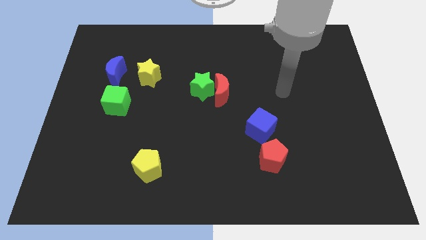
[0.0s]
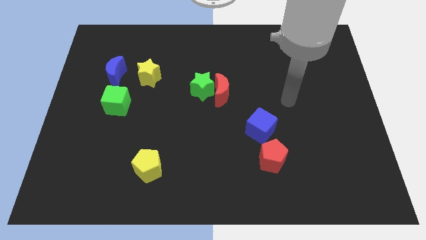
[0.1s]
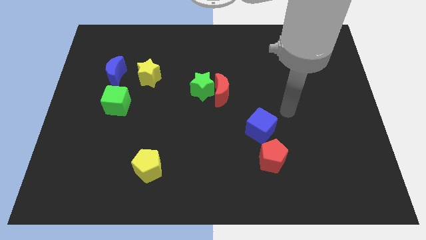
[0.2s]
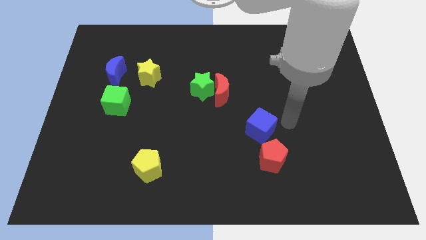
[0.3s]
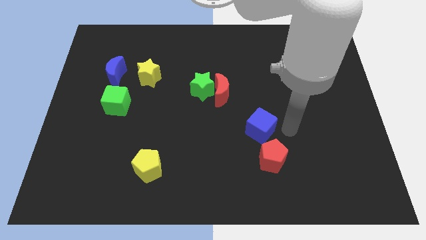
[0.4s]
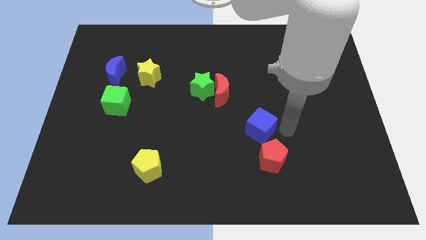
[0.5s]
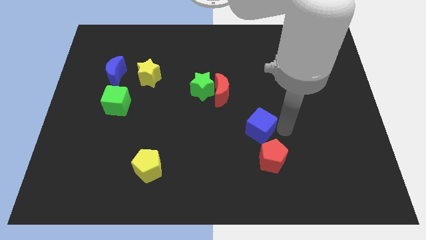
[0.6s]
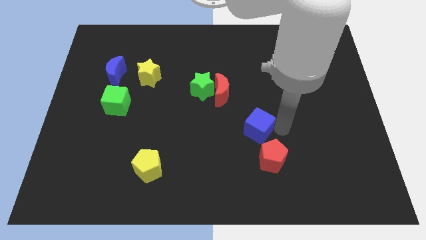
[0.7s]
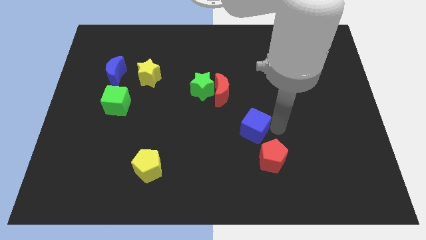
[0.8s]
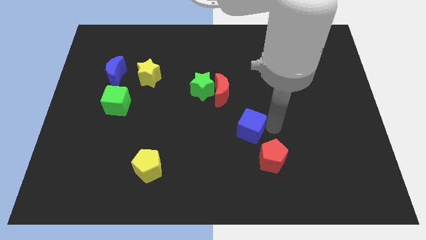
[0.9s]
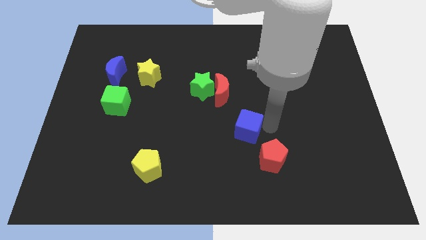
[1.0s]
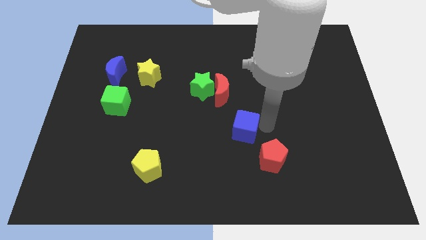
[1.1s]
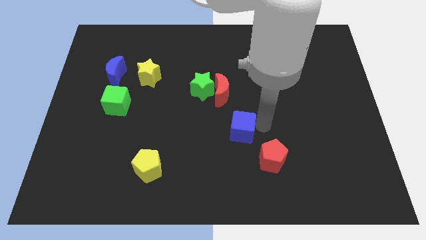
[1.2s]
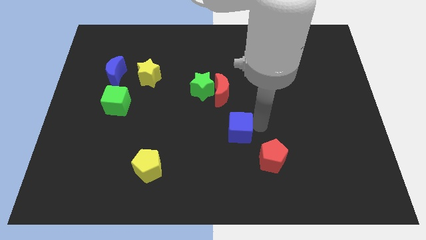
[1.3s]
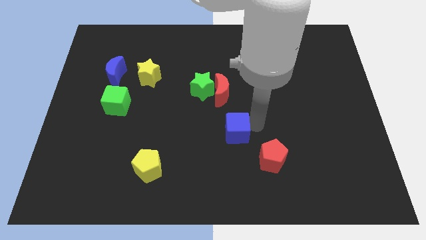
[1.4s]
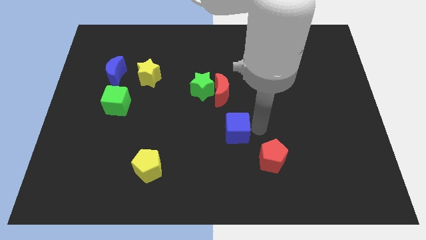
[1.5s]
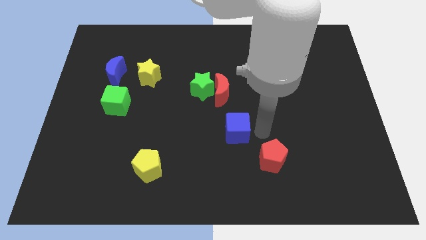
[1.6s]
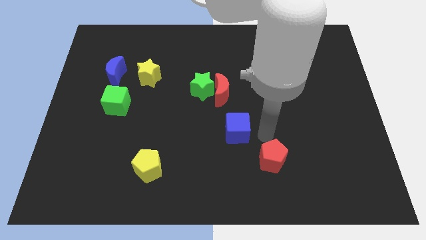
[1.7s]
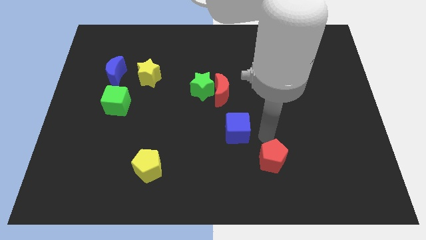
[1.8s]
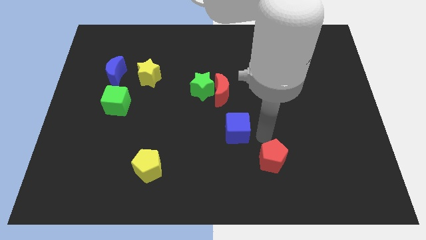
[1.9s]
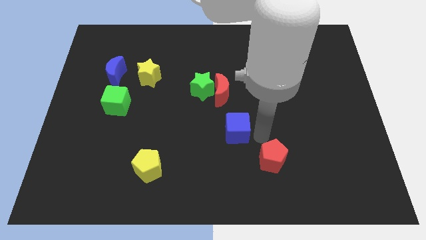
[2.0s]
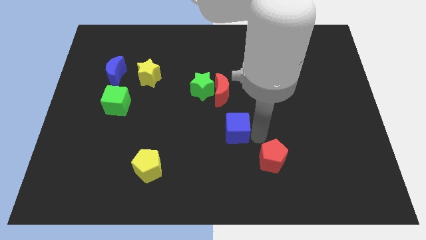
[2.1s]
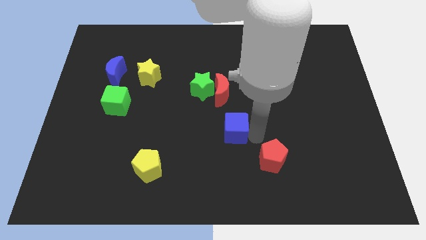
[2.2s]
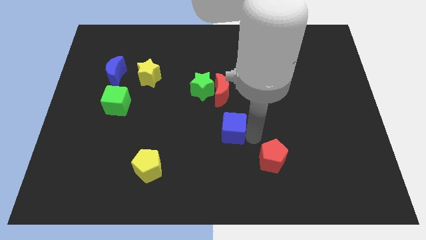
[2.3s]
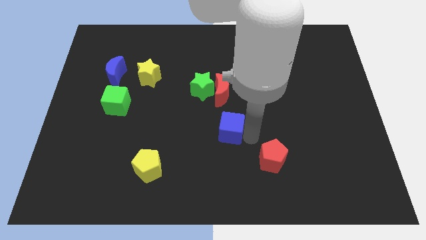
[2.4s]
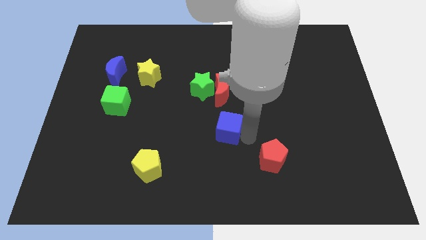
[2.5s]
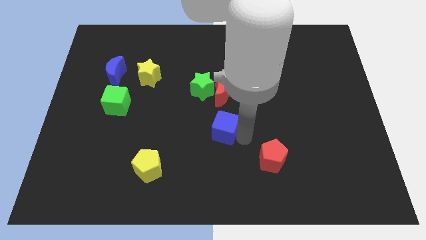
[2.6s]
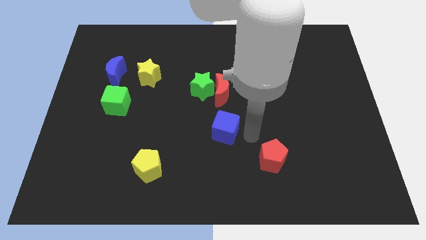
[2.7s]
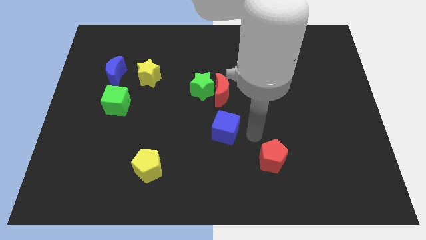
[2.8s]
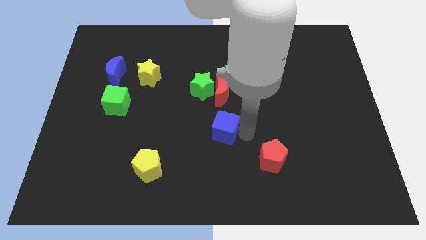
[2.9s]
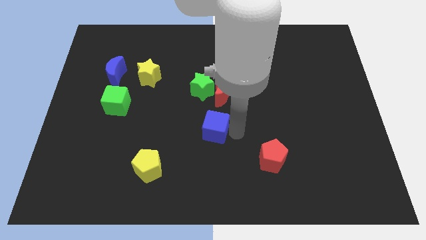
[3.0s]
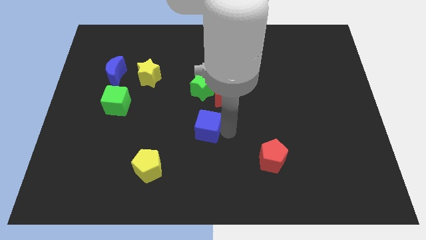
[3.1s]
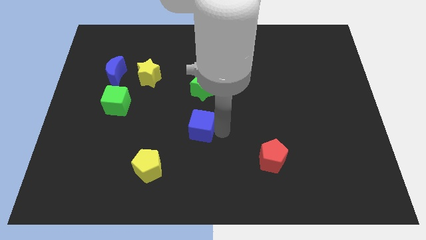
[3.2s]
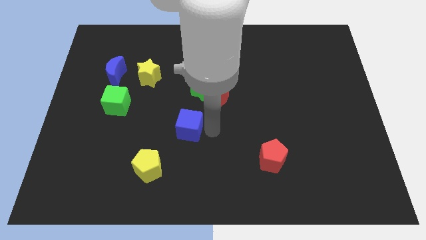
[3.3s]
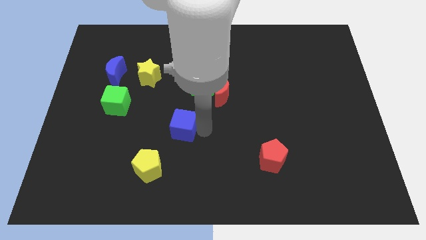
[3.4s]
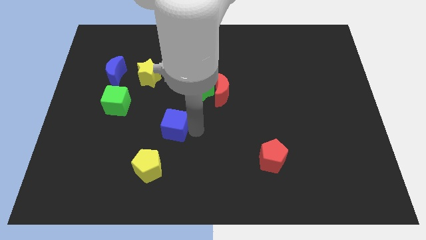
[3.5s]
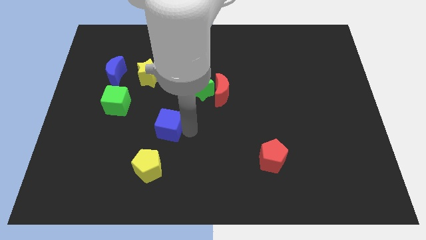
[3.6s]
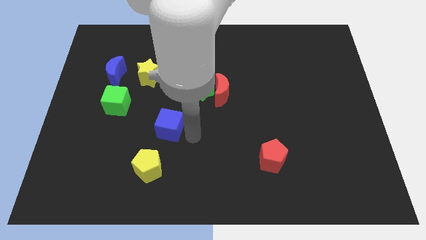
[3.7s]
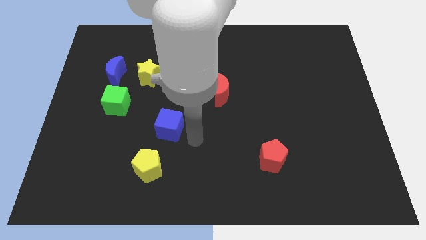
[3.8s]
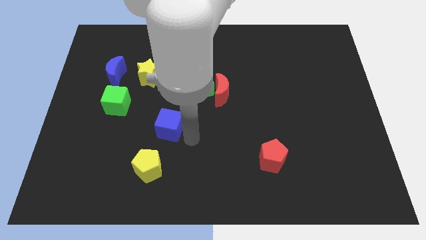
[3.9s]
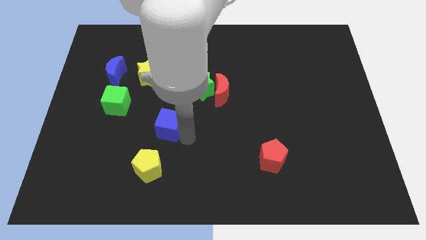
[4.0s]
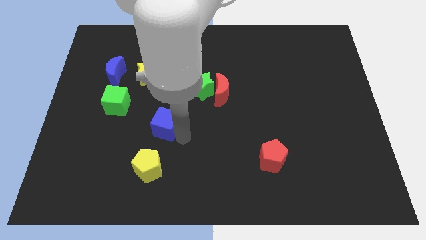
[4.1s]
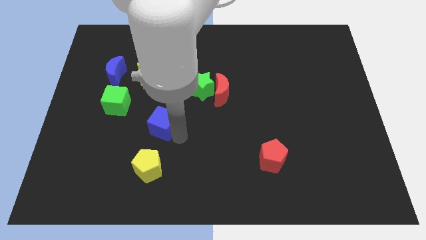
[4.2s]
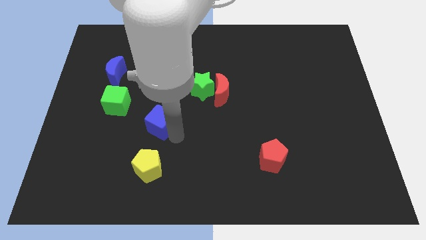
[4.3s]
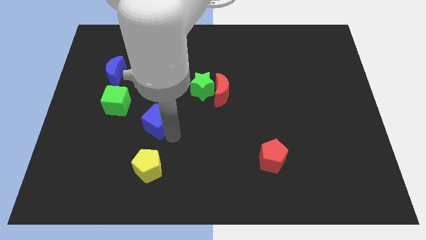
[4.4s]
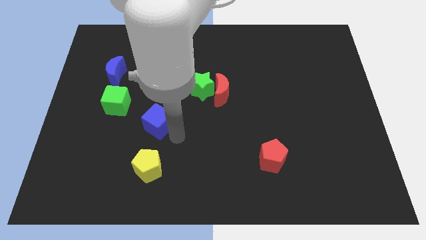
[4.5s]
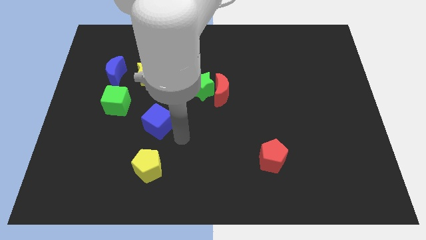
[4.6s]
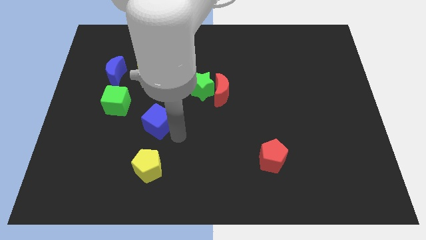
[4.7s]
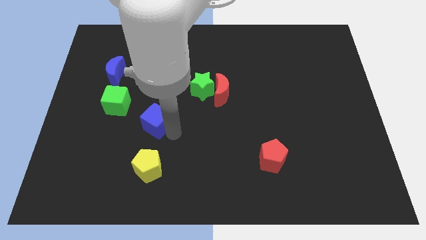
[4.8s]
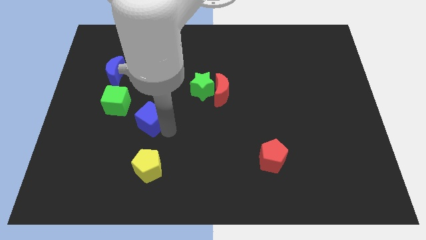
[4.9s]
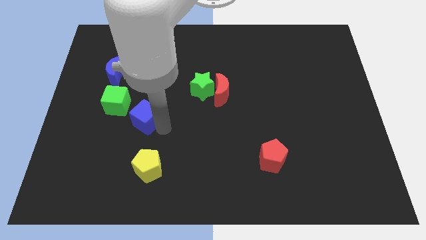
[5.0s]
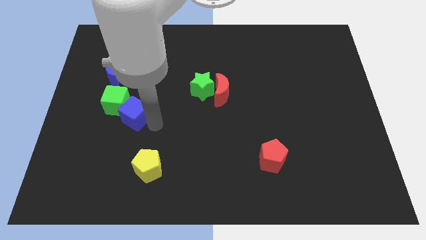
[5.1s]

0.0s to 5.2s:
slide the blue cube towards the green cube

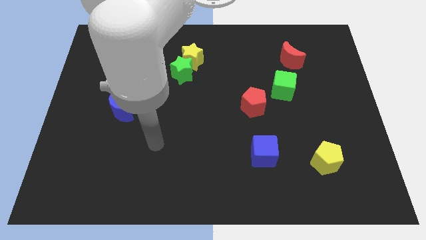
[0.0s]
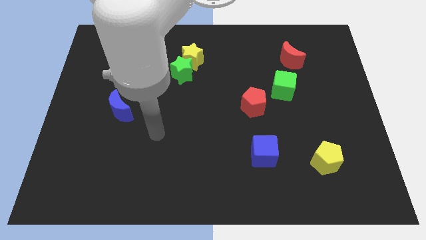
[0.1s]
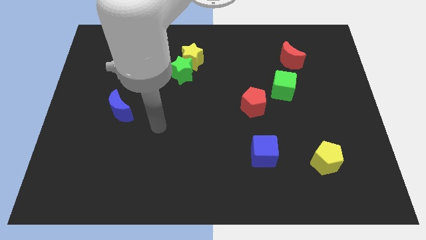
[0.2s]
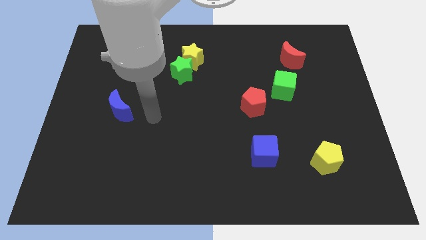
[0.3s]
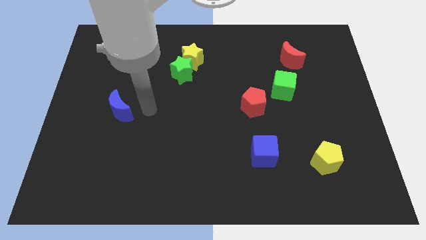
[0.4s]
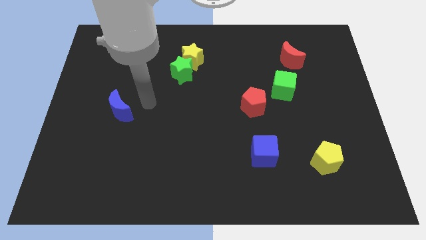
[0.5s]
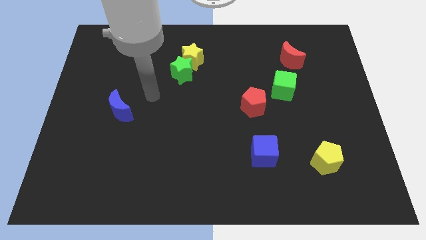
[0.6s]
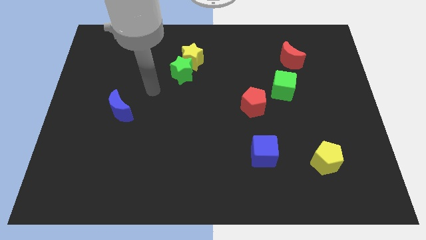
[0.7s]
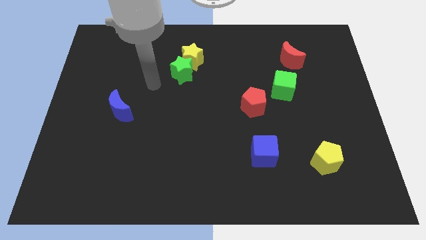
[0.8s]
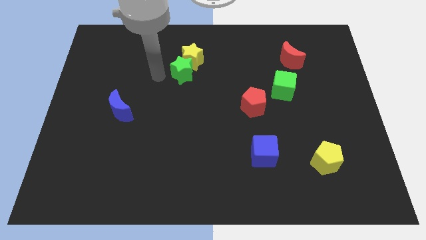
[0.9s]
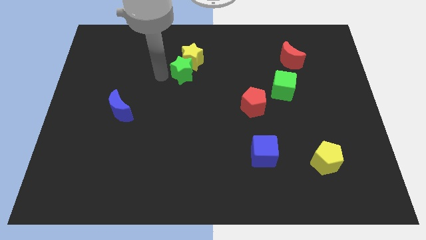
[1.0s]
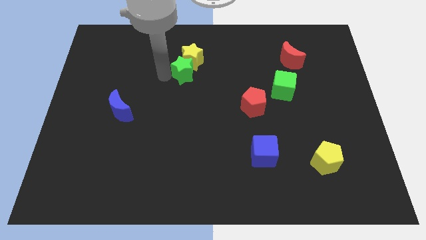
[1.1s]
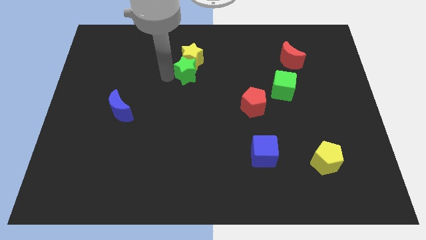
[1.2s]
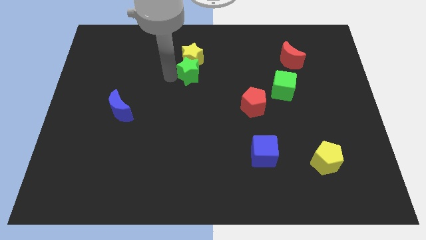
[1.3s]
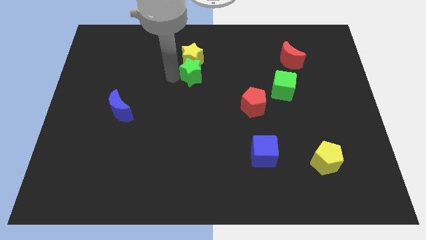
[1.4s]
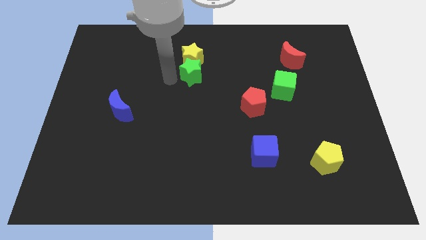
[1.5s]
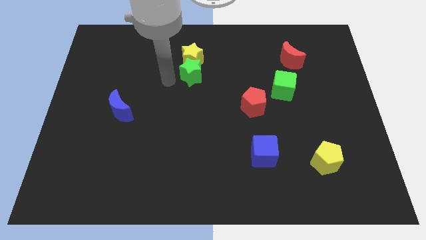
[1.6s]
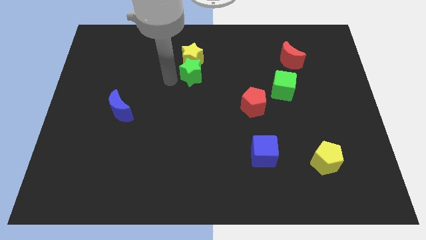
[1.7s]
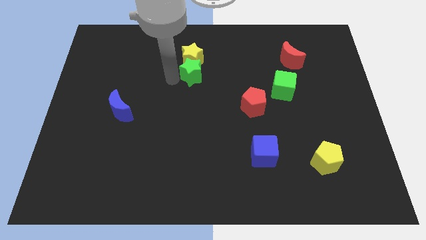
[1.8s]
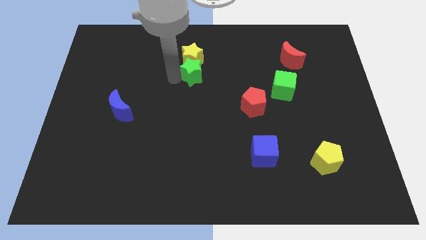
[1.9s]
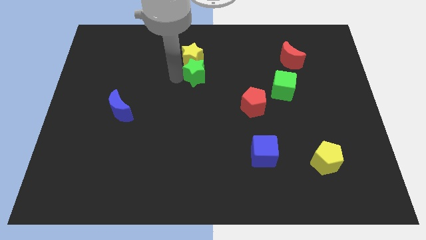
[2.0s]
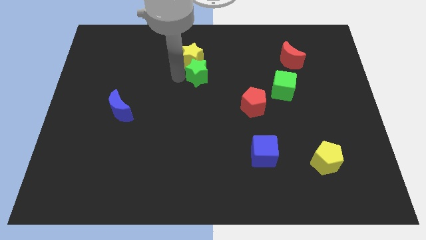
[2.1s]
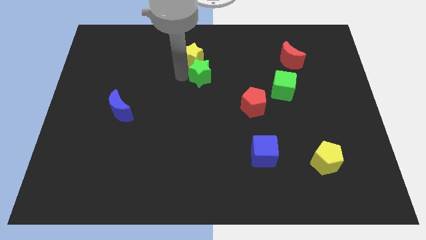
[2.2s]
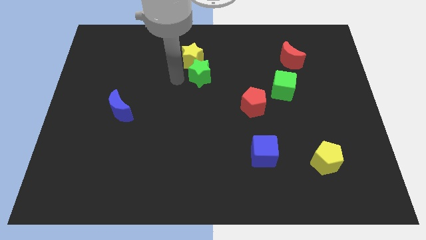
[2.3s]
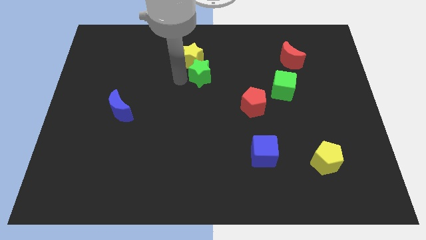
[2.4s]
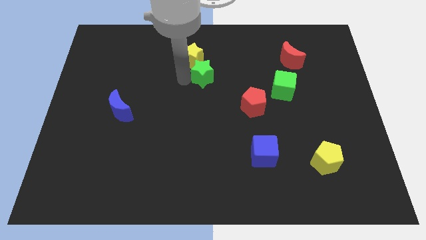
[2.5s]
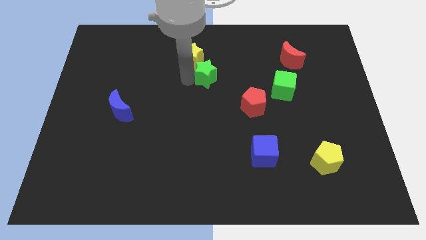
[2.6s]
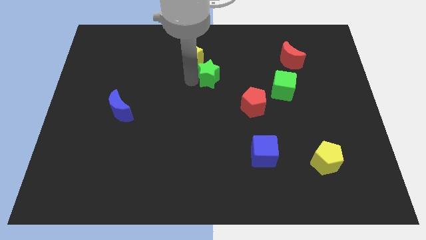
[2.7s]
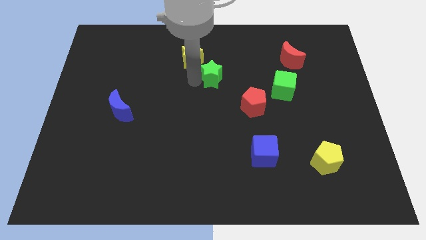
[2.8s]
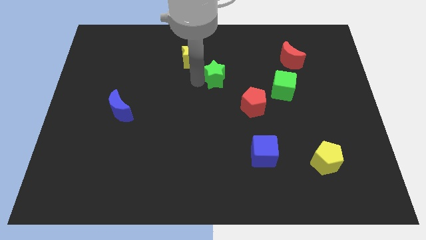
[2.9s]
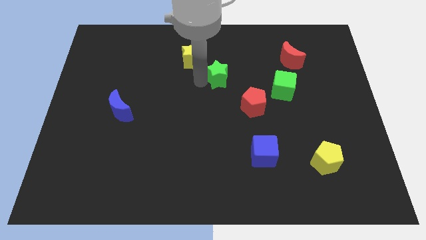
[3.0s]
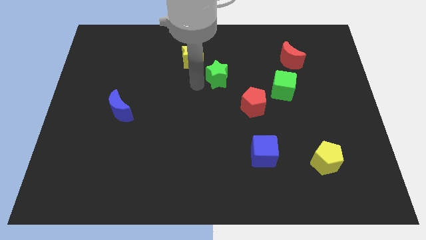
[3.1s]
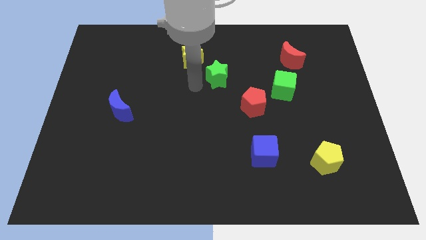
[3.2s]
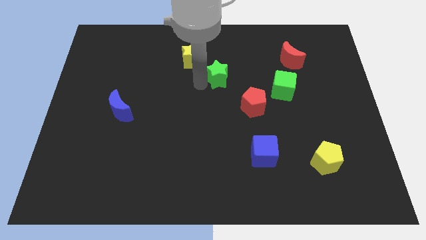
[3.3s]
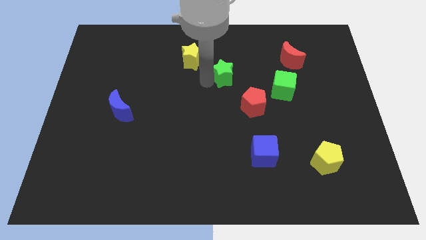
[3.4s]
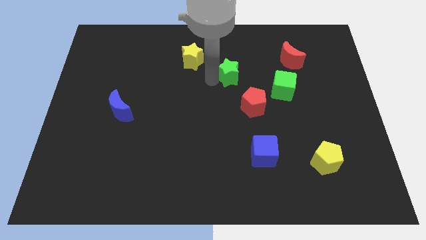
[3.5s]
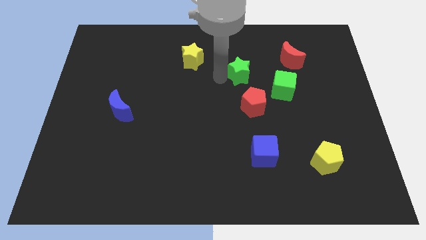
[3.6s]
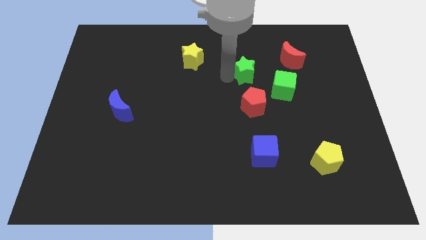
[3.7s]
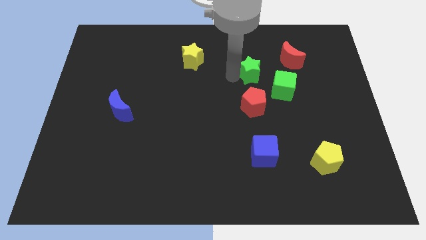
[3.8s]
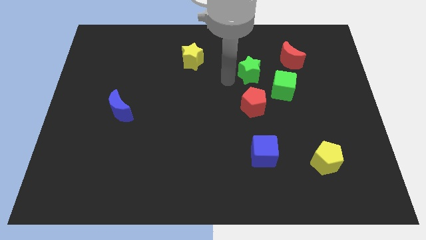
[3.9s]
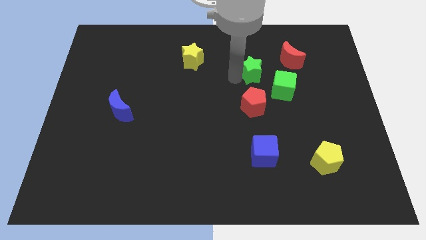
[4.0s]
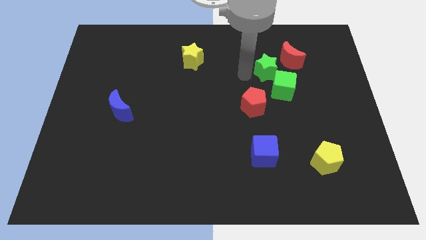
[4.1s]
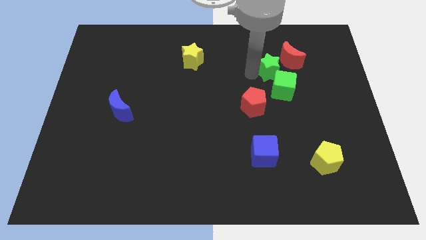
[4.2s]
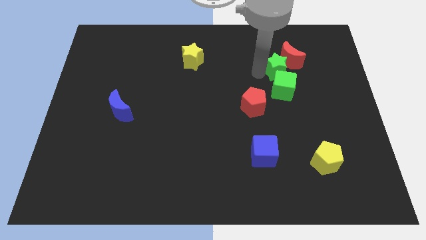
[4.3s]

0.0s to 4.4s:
move the green star towards the red moon
